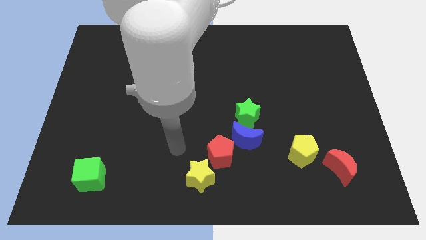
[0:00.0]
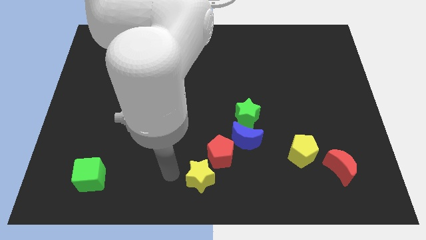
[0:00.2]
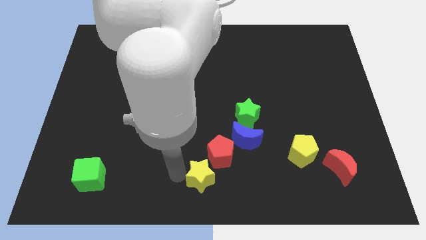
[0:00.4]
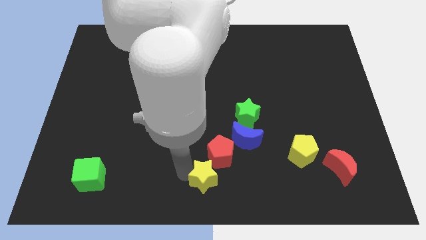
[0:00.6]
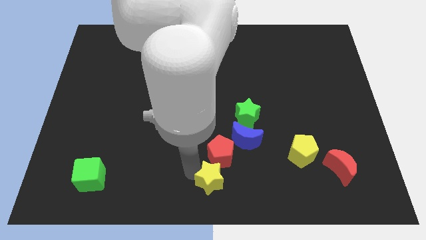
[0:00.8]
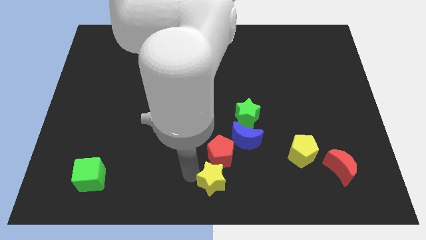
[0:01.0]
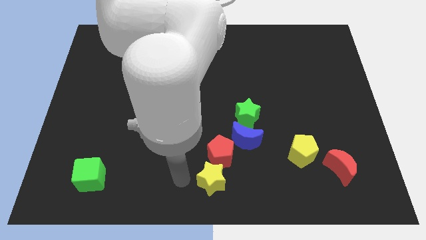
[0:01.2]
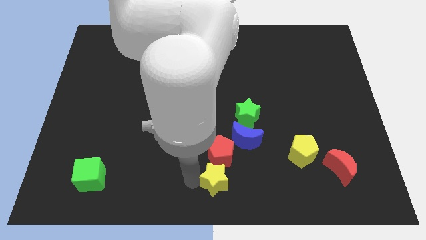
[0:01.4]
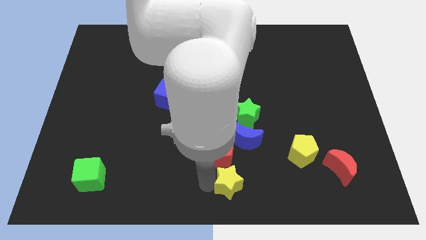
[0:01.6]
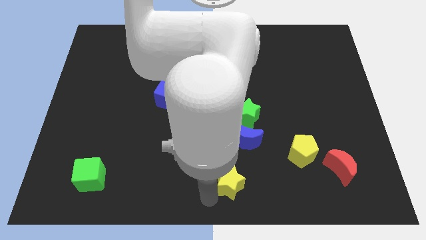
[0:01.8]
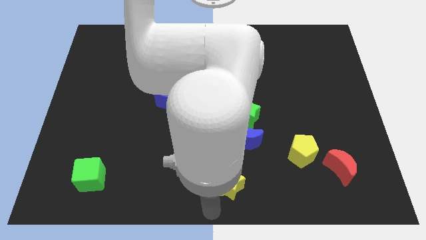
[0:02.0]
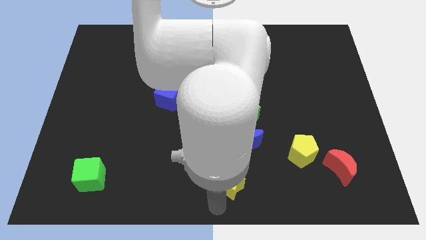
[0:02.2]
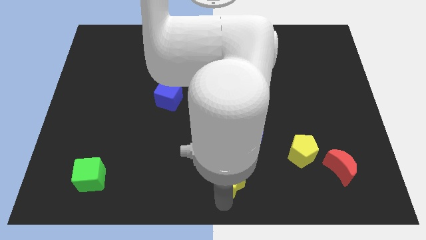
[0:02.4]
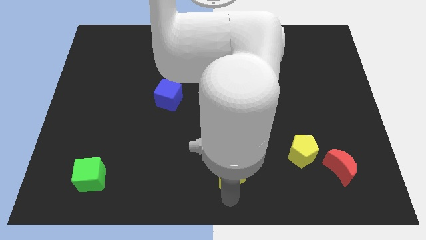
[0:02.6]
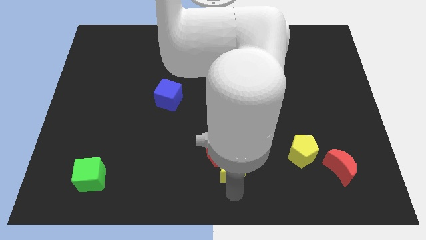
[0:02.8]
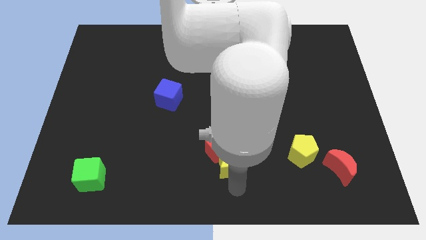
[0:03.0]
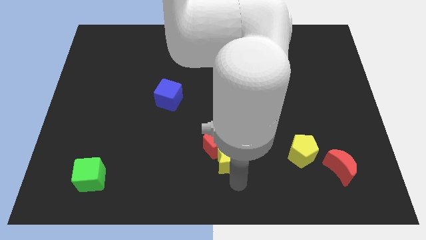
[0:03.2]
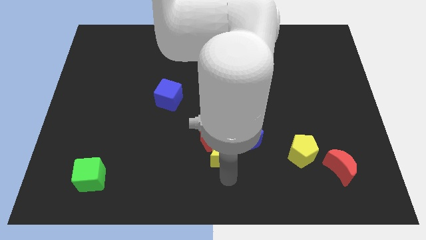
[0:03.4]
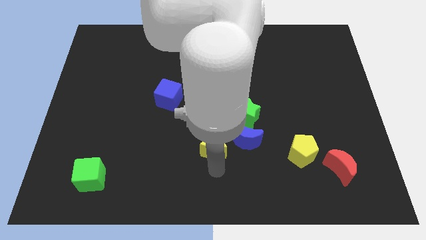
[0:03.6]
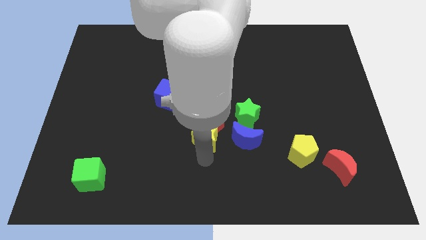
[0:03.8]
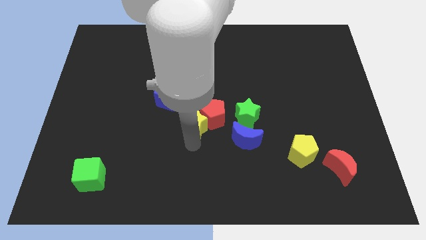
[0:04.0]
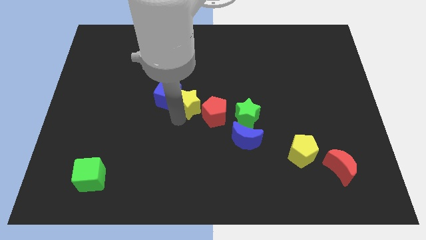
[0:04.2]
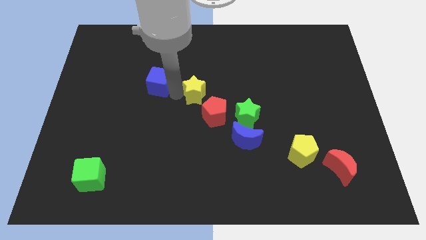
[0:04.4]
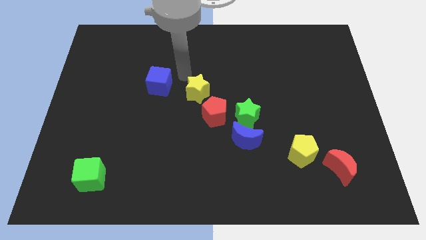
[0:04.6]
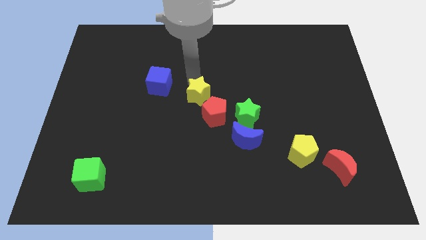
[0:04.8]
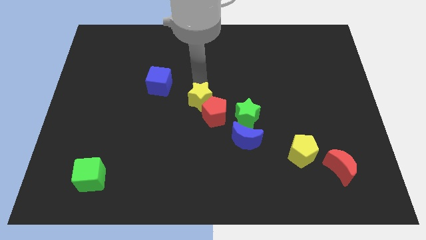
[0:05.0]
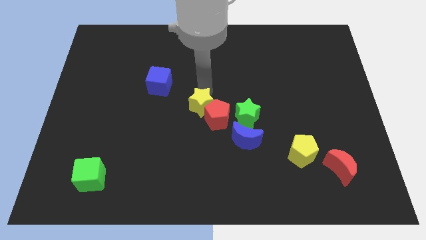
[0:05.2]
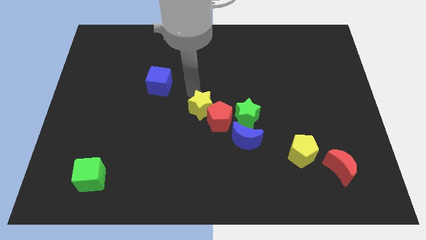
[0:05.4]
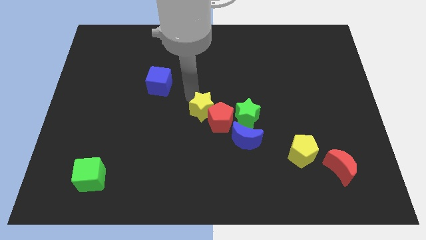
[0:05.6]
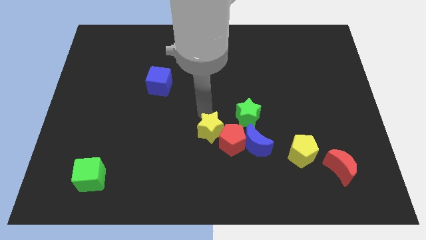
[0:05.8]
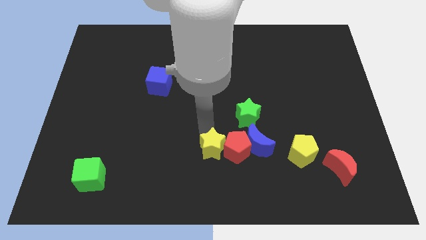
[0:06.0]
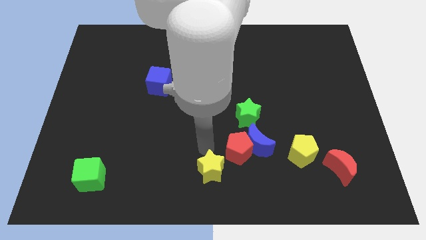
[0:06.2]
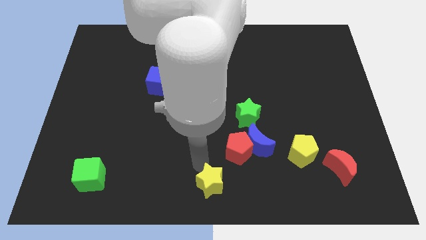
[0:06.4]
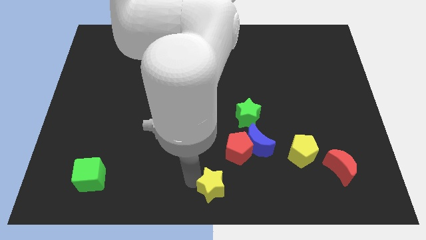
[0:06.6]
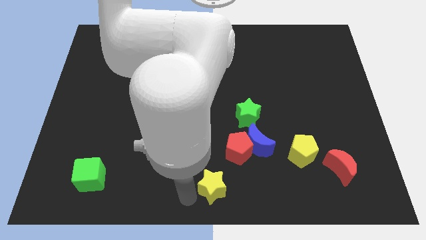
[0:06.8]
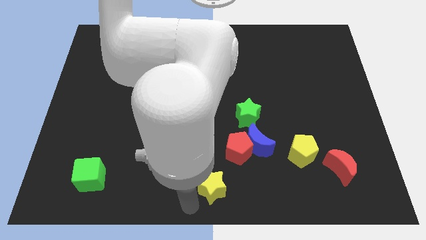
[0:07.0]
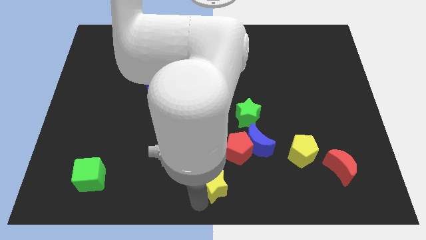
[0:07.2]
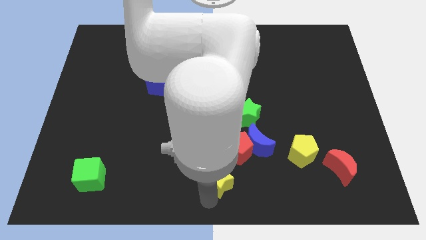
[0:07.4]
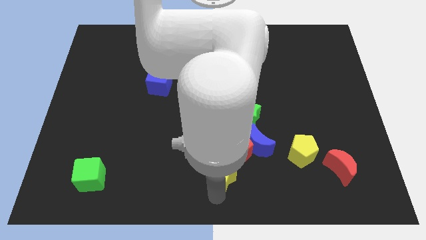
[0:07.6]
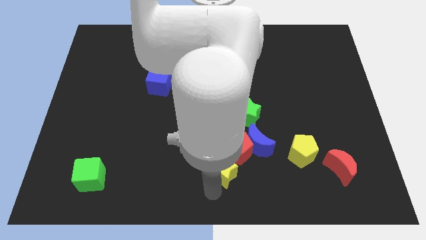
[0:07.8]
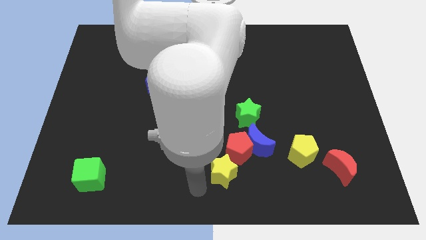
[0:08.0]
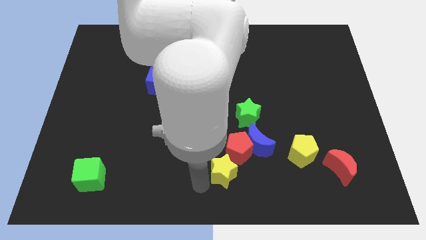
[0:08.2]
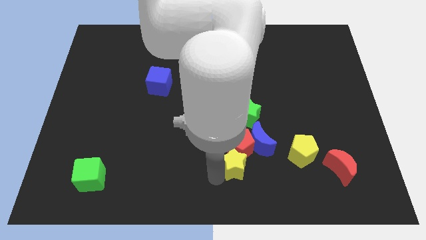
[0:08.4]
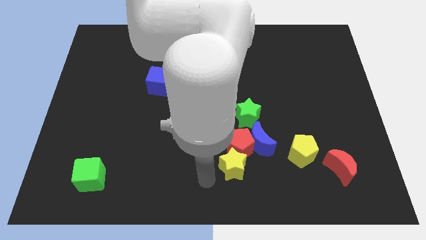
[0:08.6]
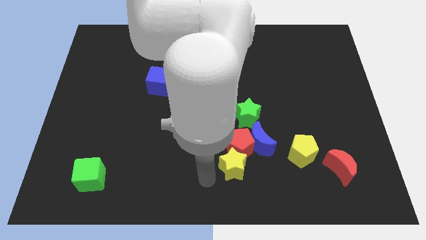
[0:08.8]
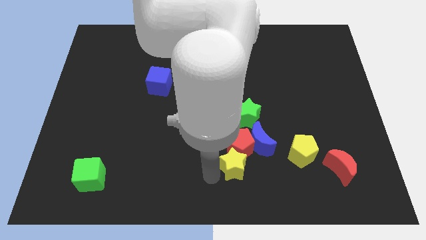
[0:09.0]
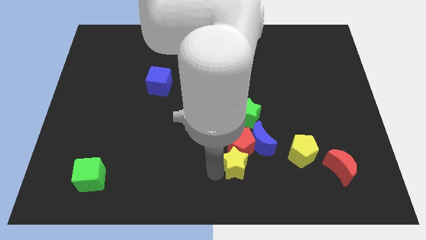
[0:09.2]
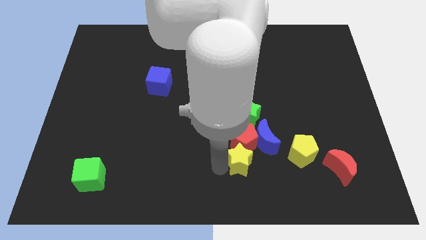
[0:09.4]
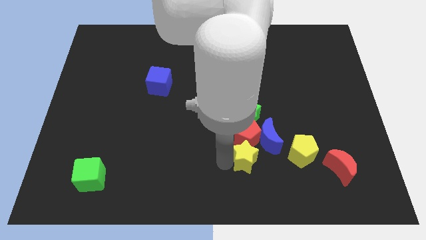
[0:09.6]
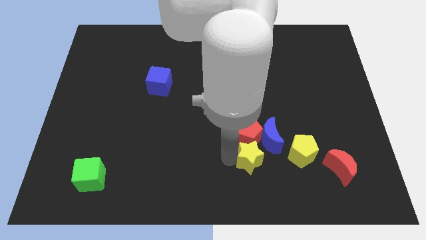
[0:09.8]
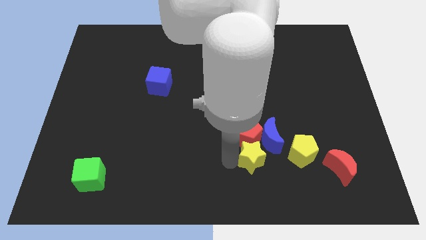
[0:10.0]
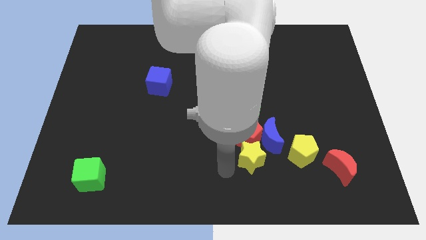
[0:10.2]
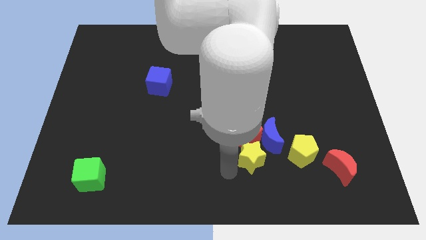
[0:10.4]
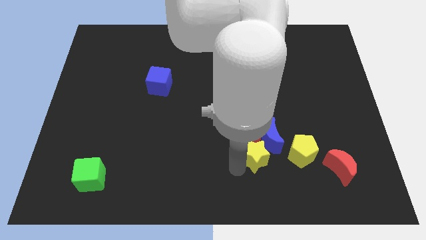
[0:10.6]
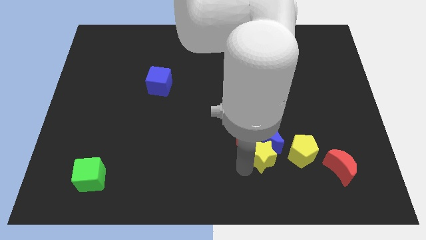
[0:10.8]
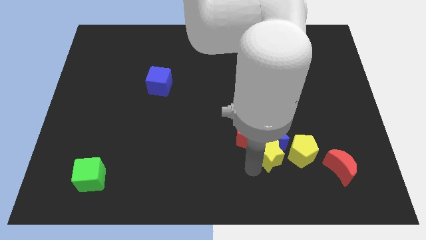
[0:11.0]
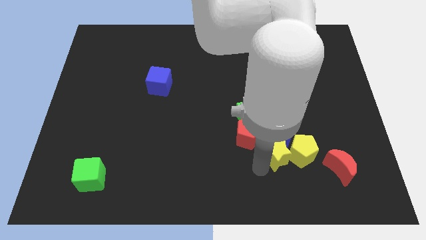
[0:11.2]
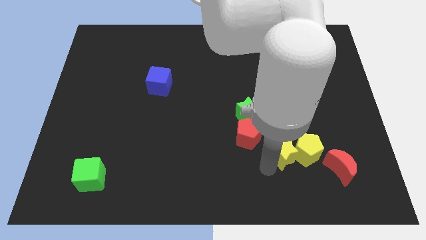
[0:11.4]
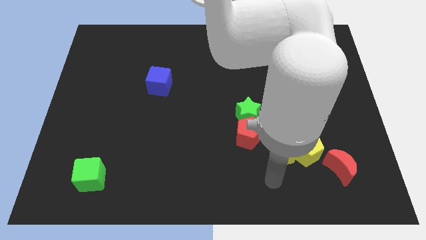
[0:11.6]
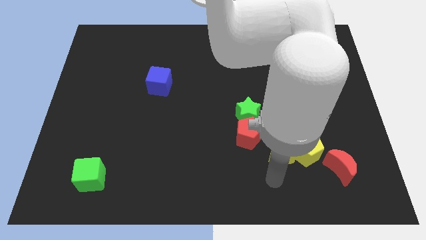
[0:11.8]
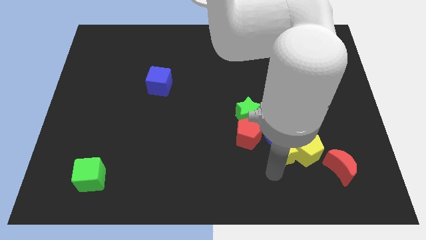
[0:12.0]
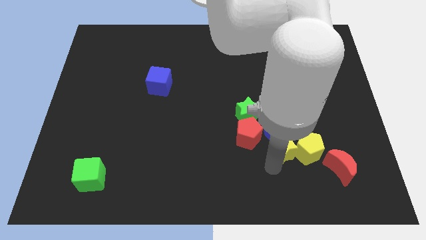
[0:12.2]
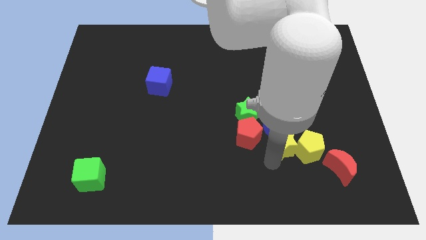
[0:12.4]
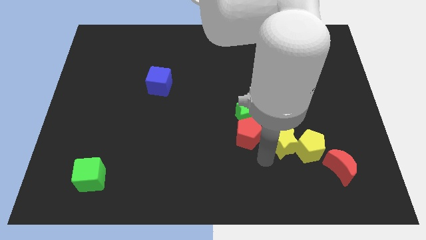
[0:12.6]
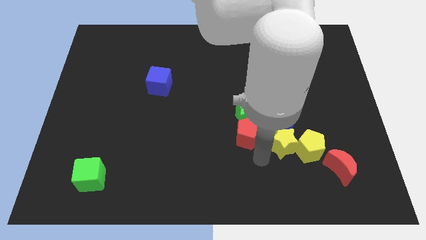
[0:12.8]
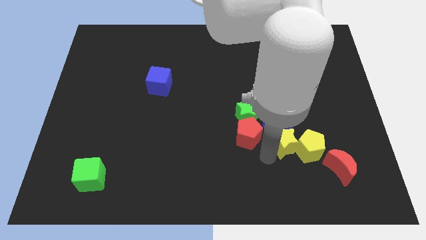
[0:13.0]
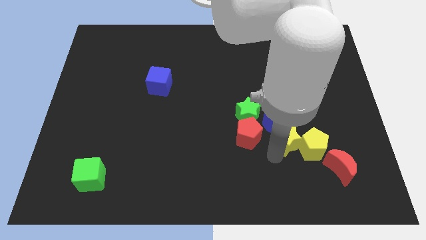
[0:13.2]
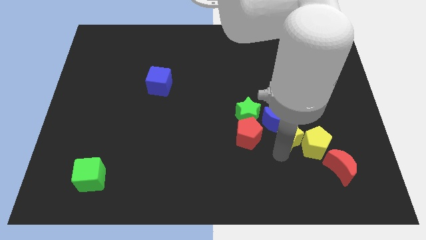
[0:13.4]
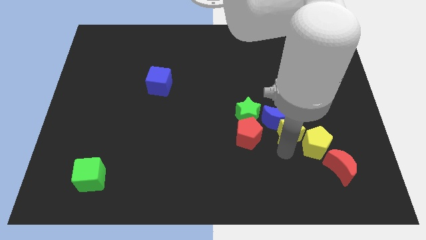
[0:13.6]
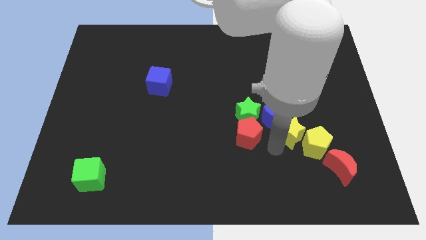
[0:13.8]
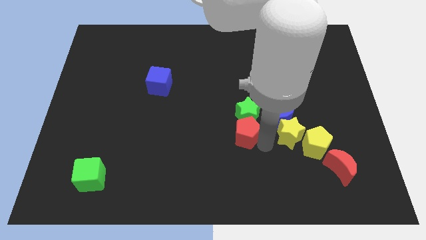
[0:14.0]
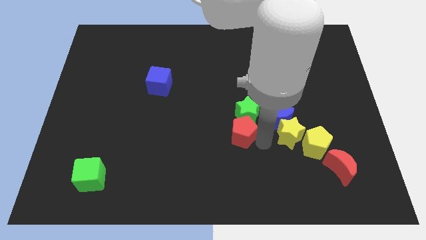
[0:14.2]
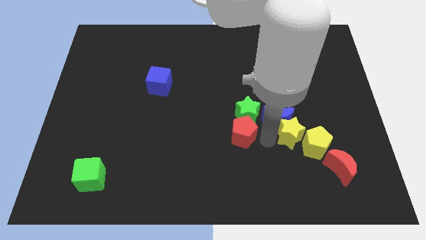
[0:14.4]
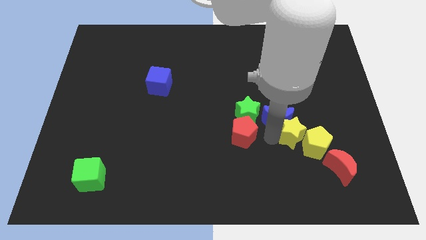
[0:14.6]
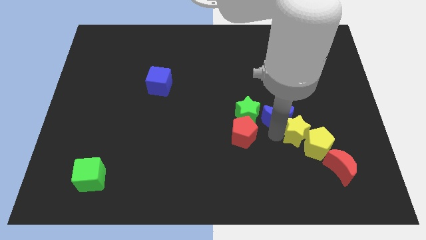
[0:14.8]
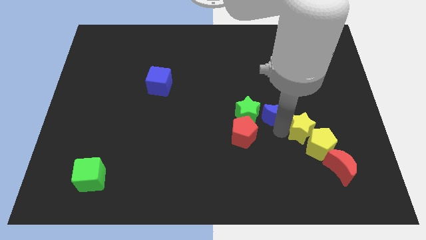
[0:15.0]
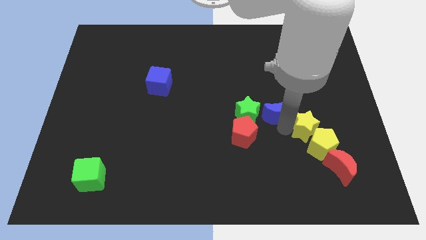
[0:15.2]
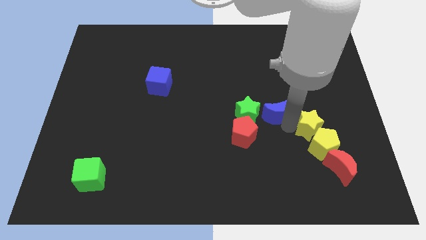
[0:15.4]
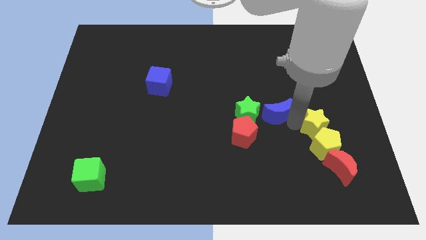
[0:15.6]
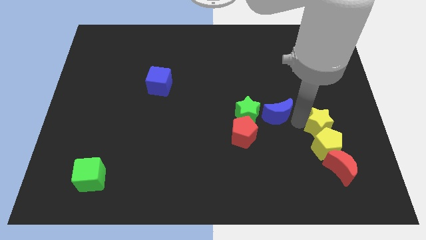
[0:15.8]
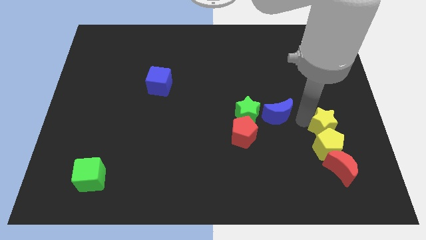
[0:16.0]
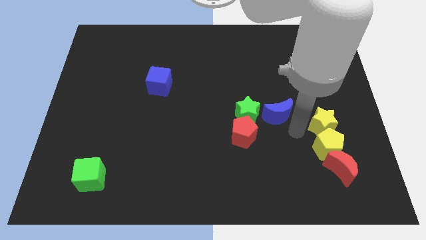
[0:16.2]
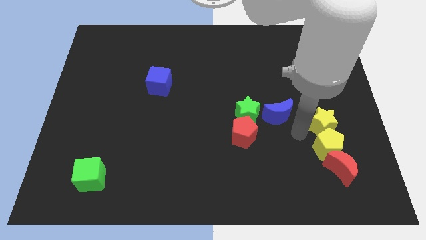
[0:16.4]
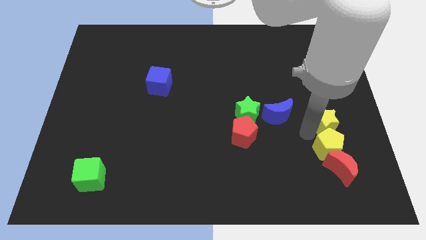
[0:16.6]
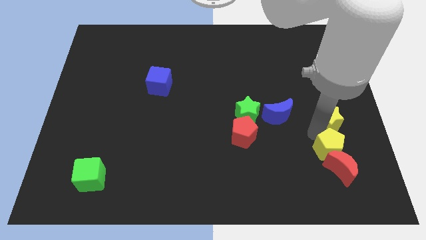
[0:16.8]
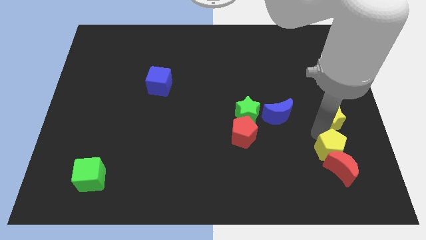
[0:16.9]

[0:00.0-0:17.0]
push the yellow star to the center right
